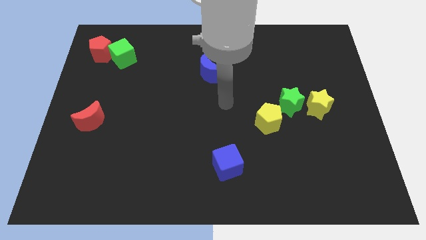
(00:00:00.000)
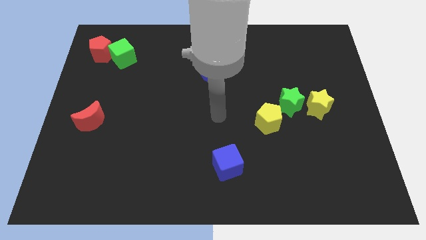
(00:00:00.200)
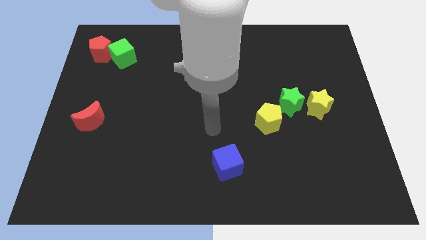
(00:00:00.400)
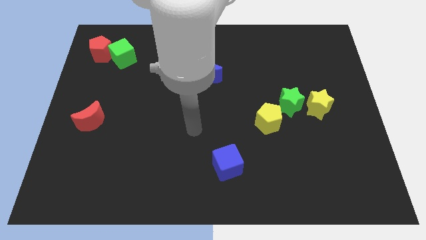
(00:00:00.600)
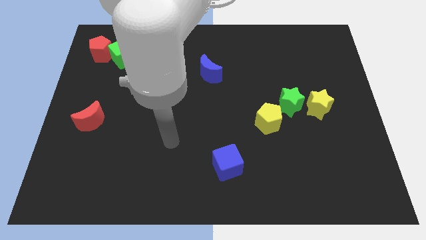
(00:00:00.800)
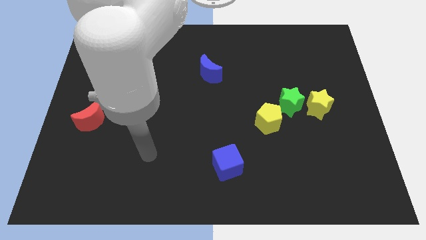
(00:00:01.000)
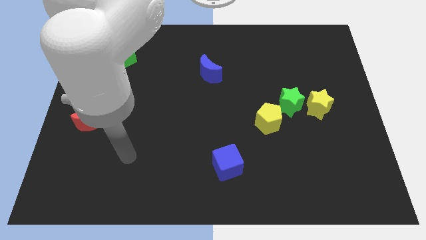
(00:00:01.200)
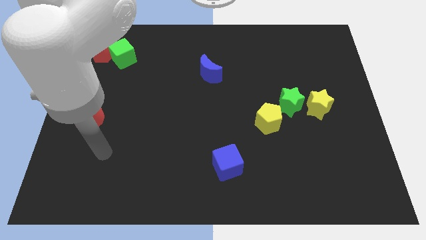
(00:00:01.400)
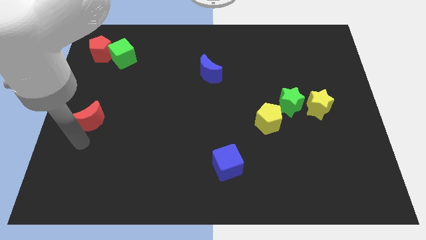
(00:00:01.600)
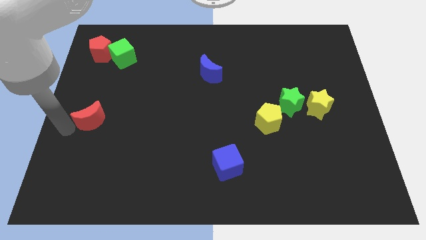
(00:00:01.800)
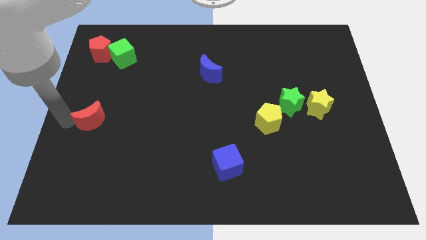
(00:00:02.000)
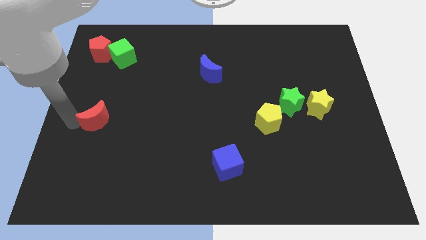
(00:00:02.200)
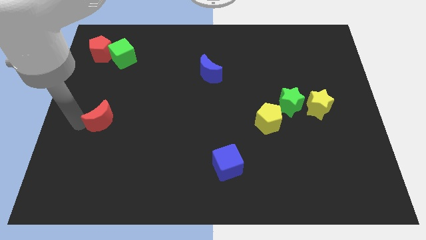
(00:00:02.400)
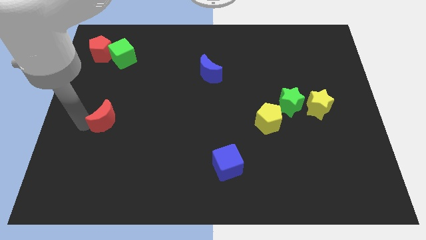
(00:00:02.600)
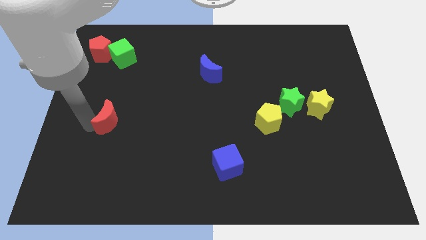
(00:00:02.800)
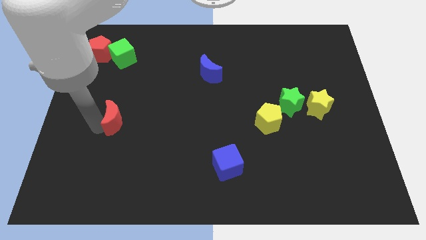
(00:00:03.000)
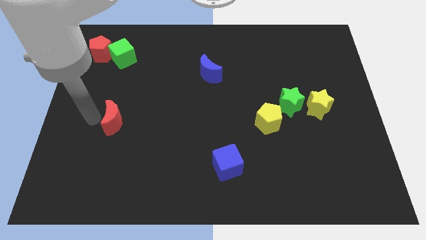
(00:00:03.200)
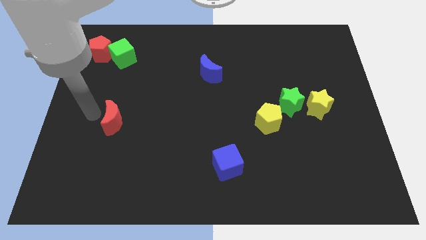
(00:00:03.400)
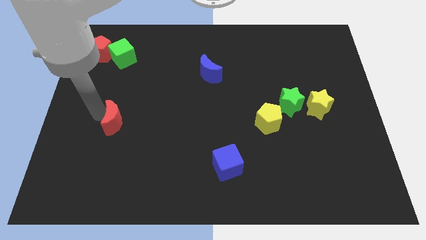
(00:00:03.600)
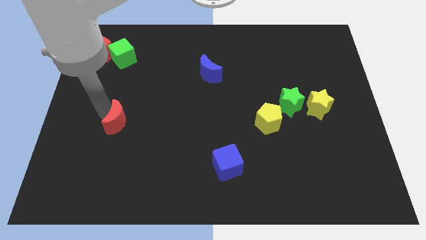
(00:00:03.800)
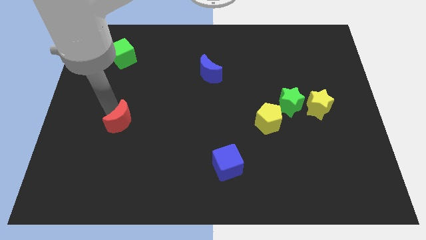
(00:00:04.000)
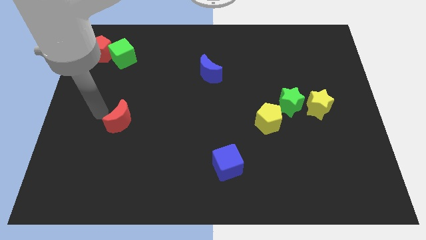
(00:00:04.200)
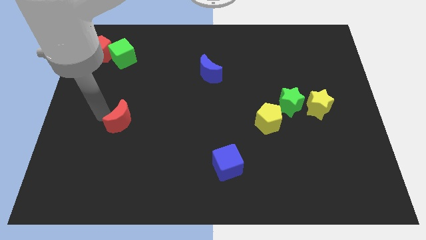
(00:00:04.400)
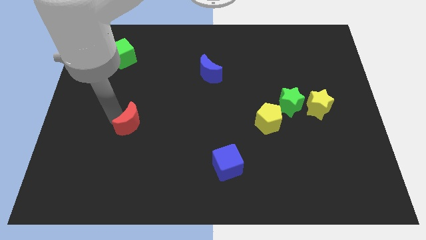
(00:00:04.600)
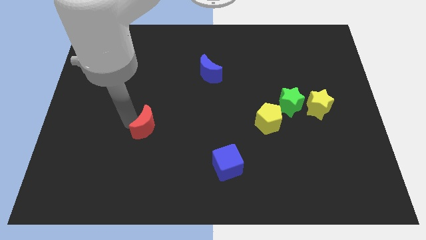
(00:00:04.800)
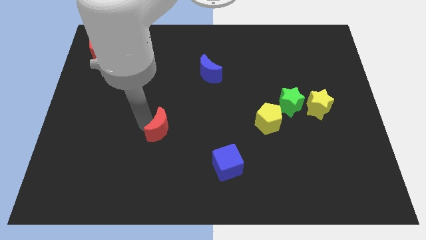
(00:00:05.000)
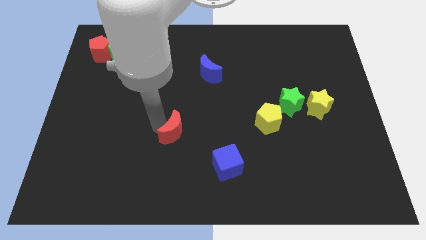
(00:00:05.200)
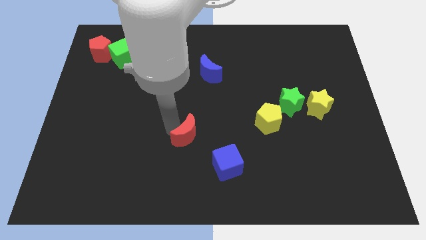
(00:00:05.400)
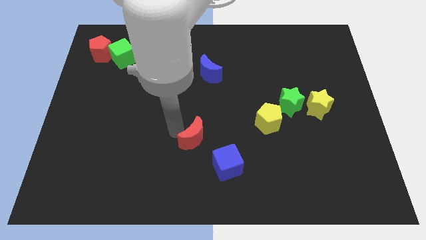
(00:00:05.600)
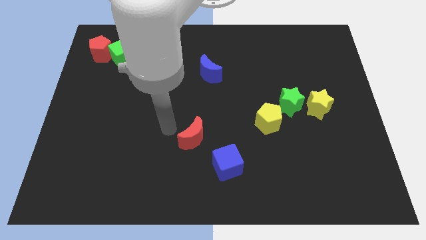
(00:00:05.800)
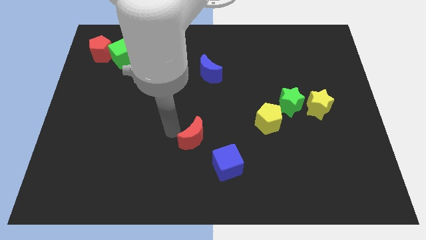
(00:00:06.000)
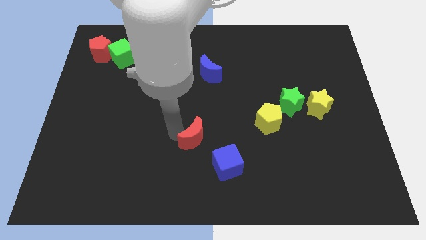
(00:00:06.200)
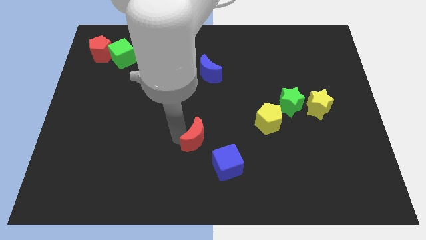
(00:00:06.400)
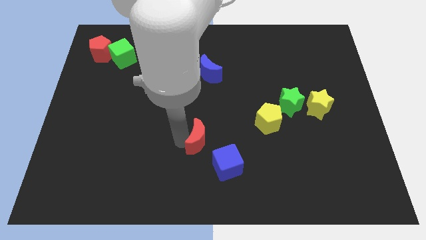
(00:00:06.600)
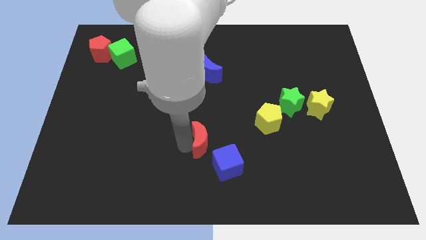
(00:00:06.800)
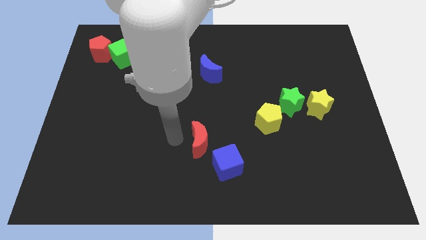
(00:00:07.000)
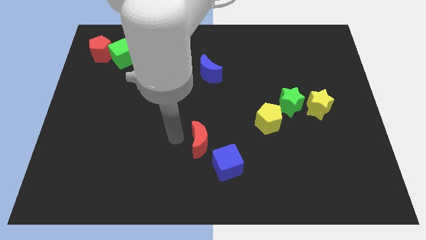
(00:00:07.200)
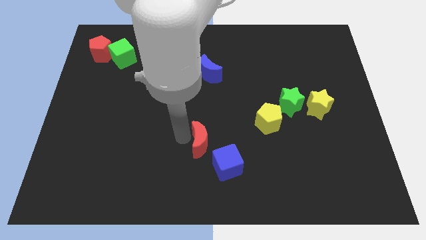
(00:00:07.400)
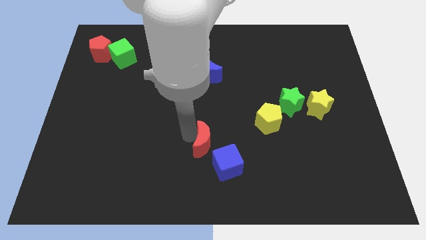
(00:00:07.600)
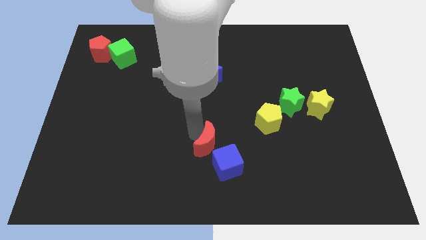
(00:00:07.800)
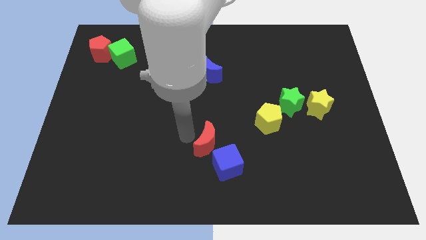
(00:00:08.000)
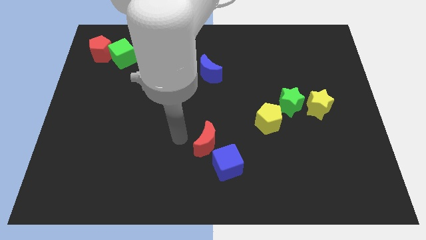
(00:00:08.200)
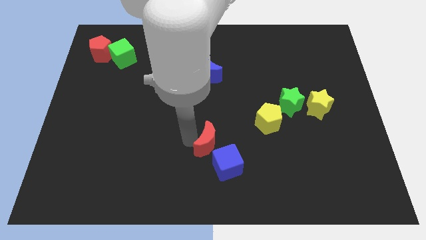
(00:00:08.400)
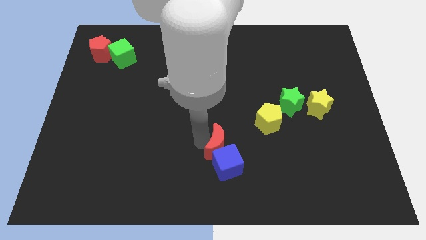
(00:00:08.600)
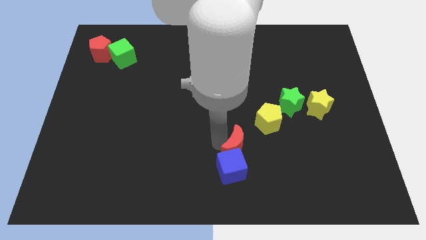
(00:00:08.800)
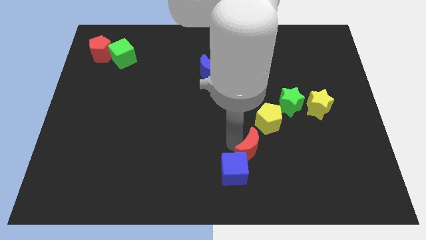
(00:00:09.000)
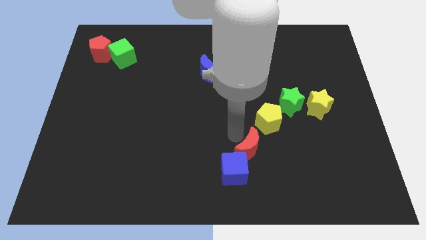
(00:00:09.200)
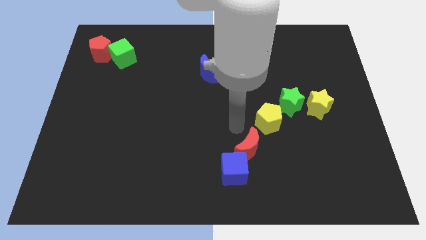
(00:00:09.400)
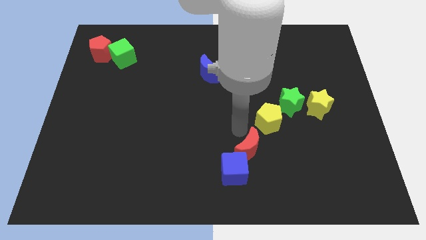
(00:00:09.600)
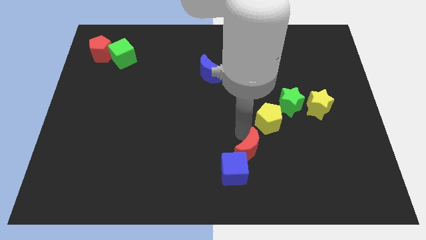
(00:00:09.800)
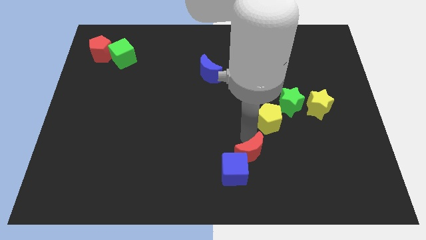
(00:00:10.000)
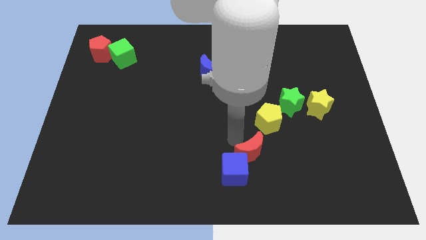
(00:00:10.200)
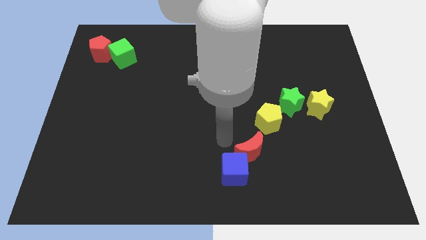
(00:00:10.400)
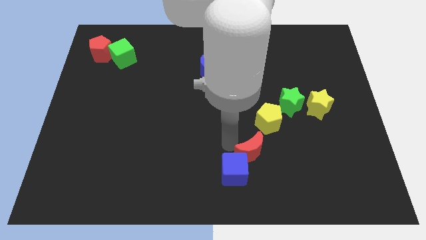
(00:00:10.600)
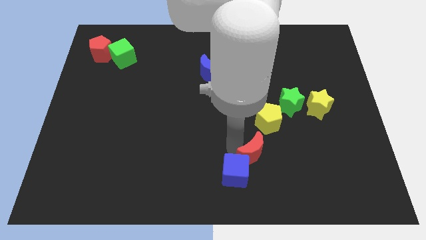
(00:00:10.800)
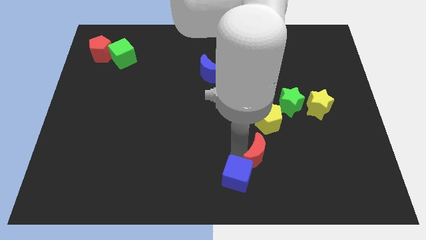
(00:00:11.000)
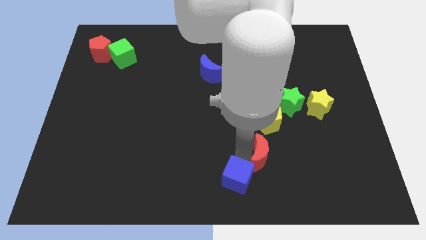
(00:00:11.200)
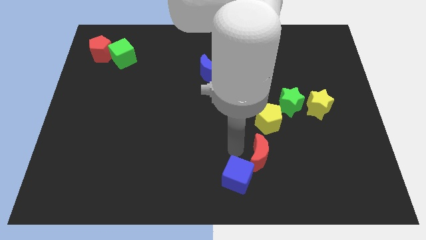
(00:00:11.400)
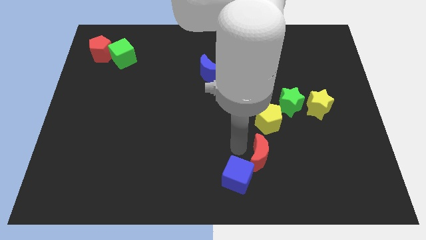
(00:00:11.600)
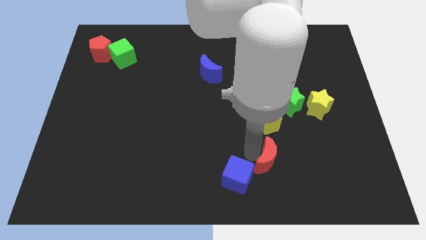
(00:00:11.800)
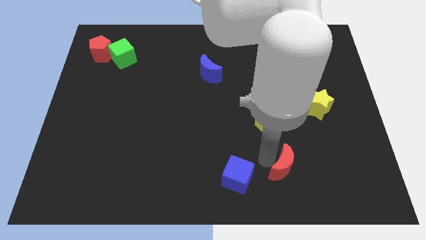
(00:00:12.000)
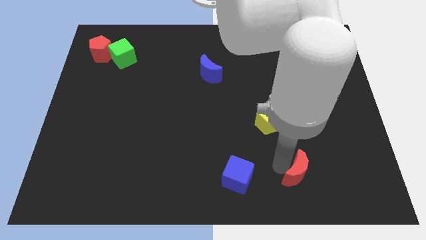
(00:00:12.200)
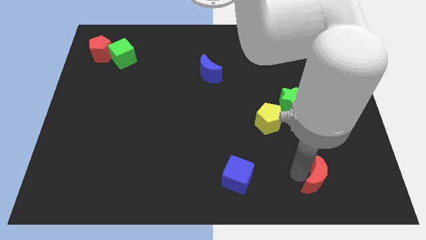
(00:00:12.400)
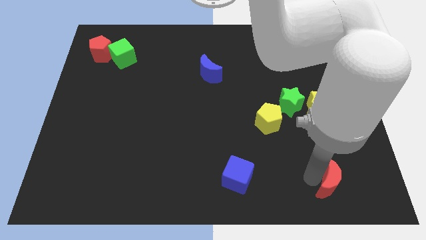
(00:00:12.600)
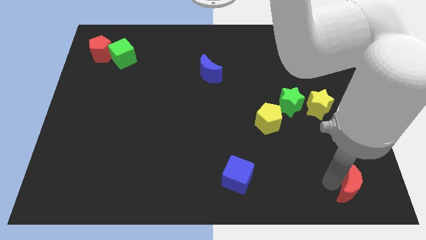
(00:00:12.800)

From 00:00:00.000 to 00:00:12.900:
move the red moon to the bottom right corner
